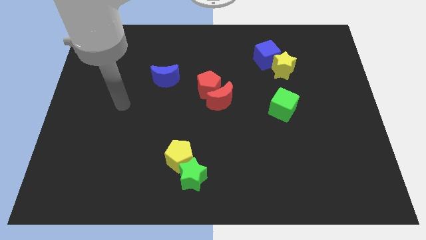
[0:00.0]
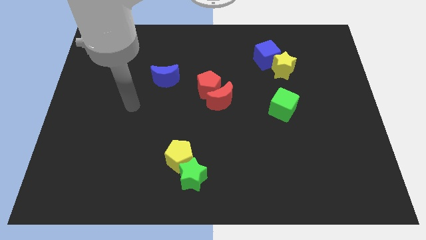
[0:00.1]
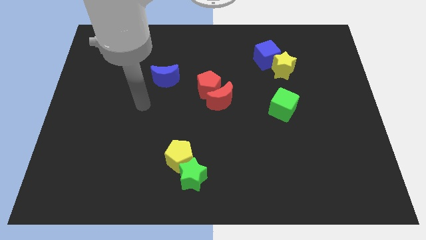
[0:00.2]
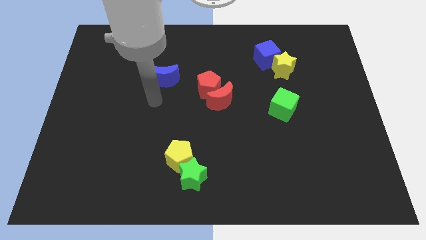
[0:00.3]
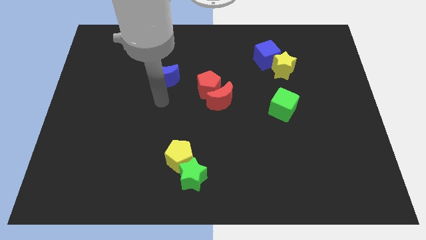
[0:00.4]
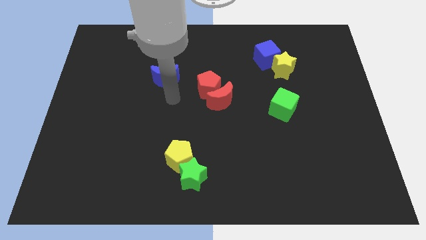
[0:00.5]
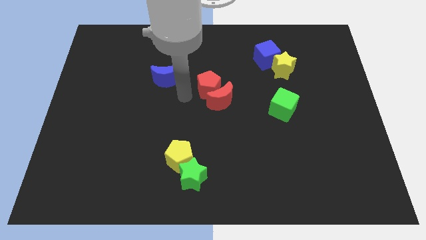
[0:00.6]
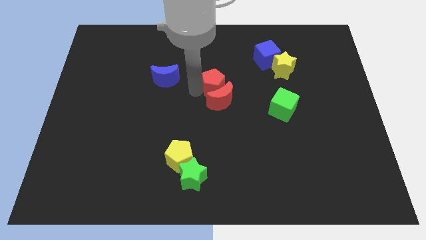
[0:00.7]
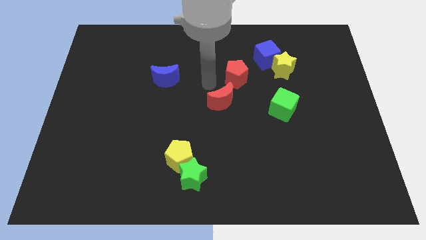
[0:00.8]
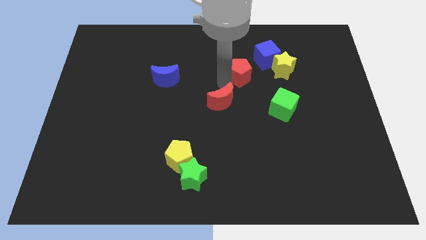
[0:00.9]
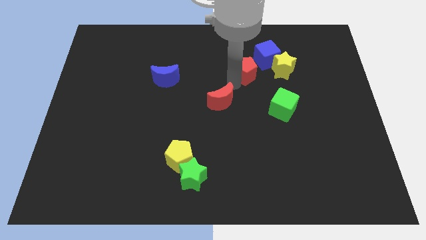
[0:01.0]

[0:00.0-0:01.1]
move the red moon away from the red pentagon

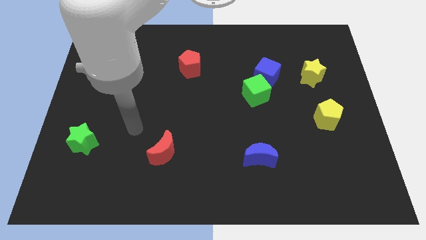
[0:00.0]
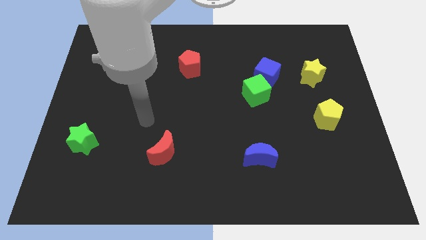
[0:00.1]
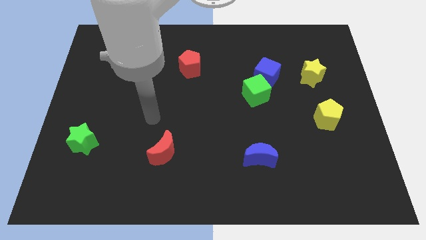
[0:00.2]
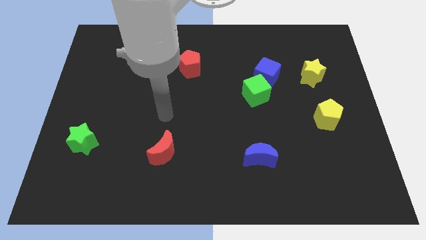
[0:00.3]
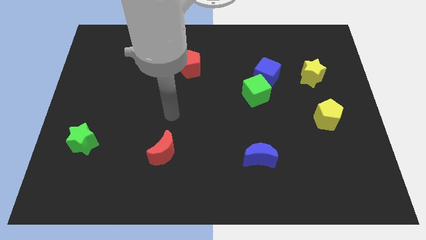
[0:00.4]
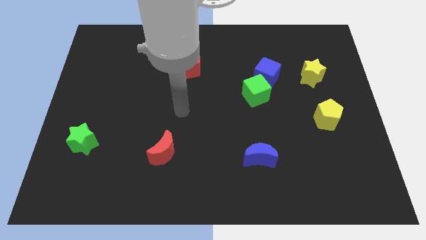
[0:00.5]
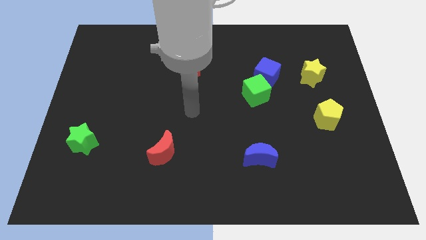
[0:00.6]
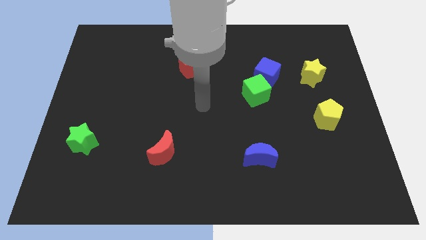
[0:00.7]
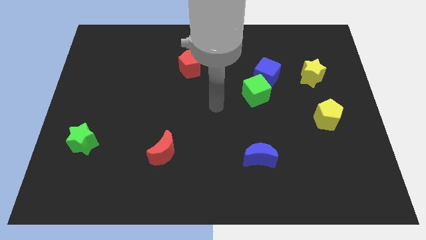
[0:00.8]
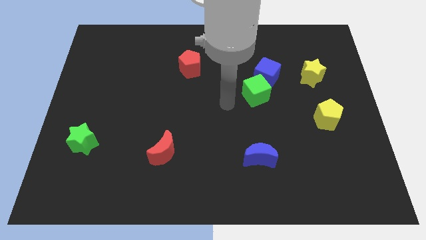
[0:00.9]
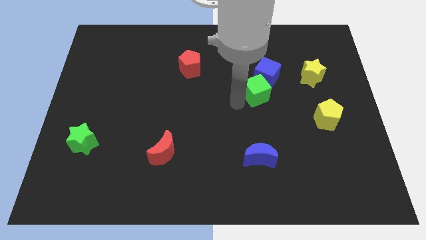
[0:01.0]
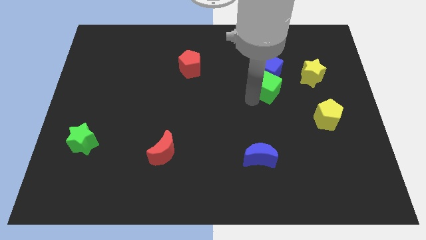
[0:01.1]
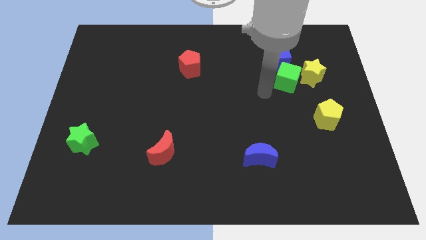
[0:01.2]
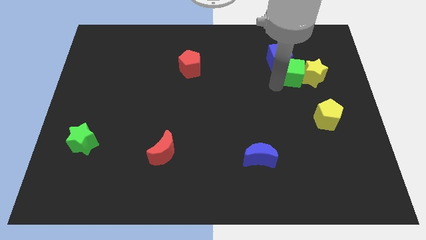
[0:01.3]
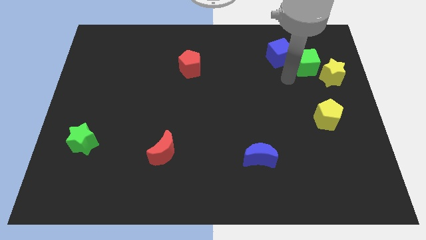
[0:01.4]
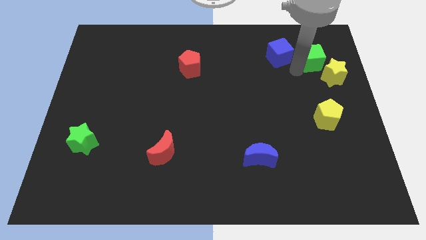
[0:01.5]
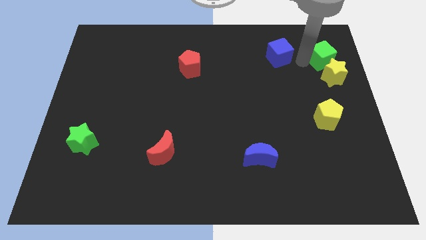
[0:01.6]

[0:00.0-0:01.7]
move the blue cube away from the green cube

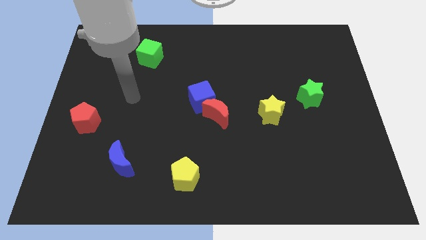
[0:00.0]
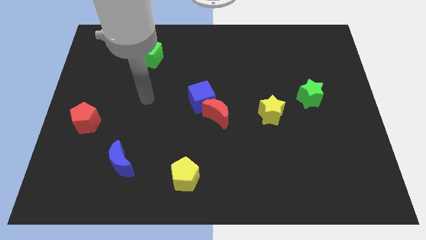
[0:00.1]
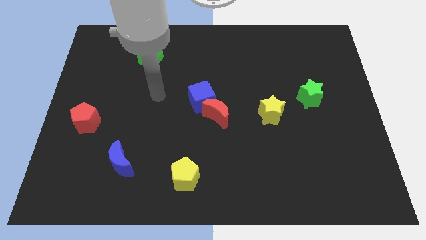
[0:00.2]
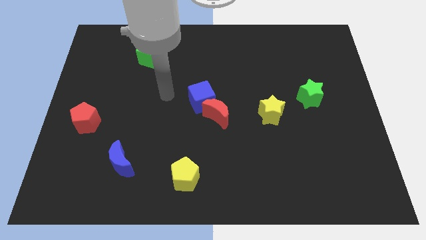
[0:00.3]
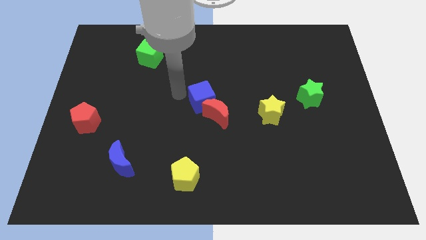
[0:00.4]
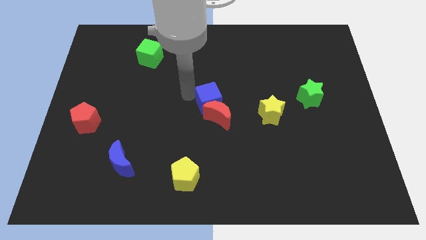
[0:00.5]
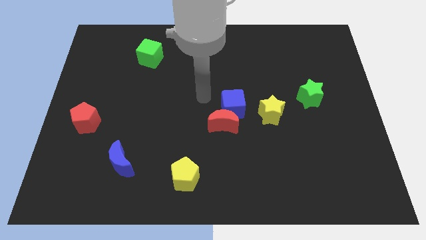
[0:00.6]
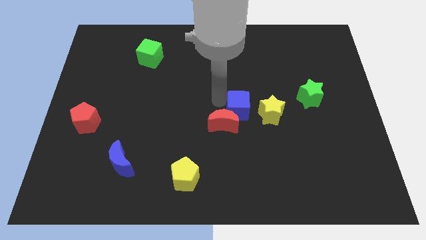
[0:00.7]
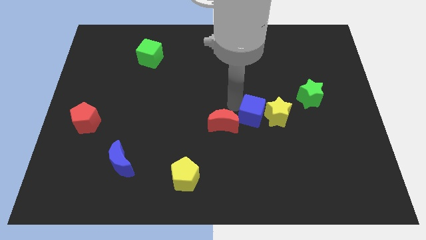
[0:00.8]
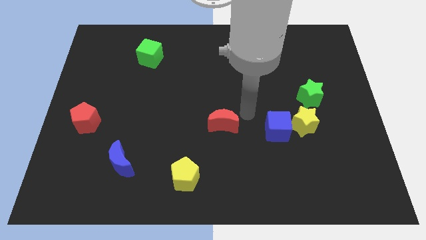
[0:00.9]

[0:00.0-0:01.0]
move the red moon away from the blue cube

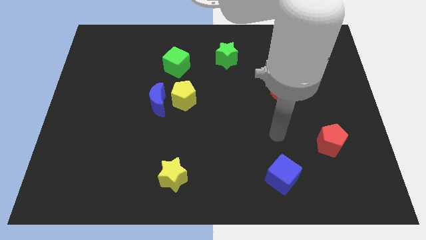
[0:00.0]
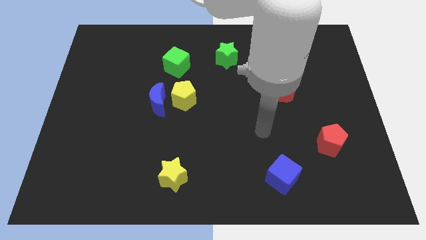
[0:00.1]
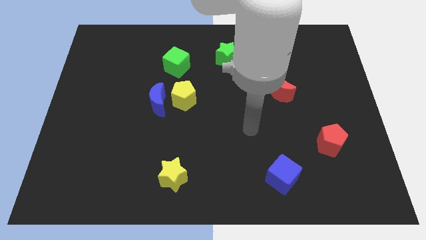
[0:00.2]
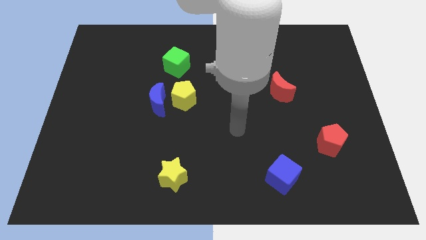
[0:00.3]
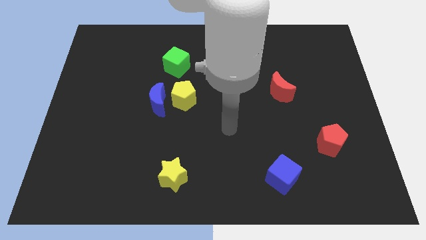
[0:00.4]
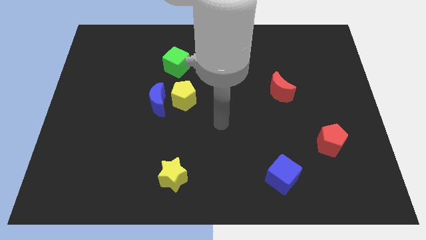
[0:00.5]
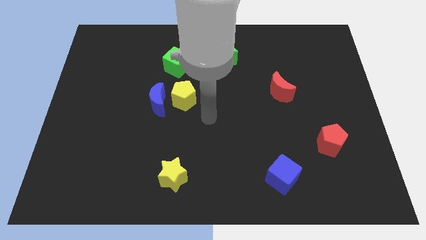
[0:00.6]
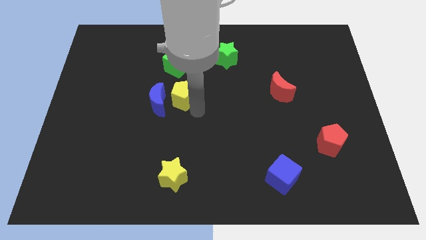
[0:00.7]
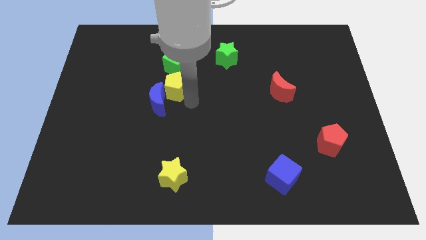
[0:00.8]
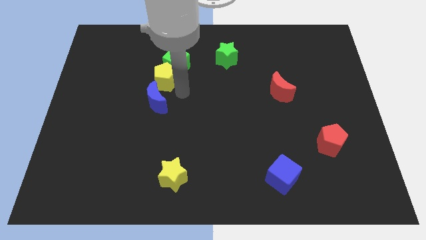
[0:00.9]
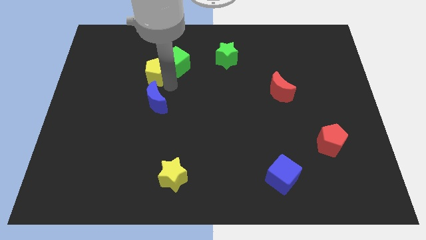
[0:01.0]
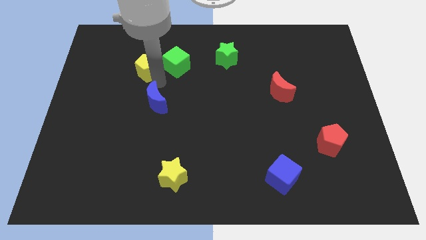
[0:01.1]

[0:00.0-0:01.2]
move the blue moon away from the yellow pentagon

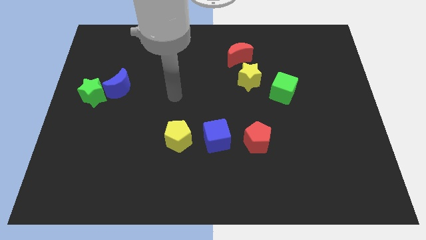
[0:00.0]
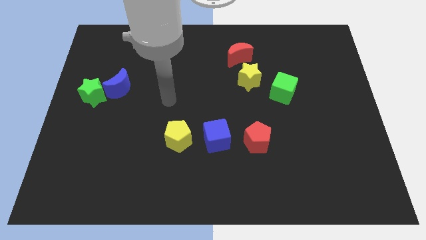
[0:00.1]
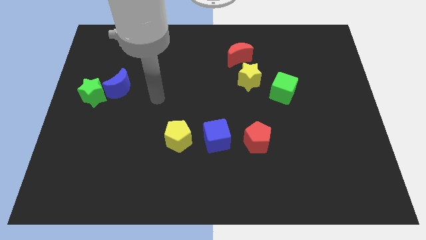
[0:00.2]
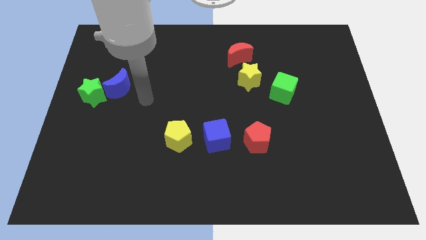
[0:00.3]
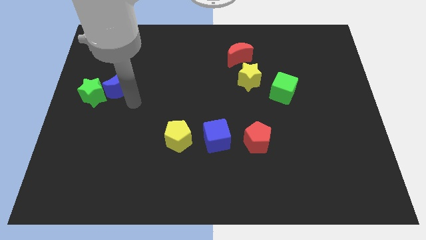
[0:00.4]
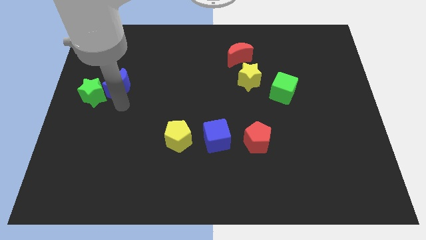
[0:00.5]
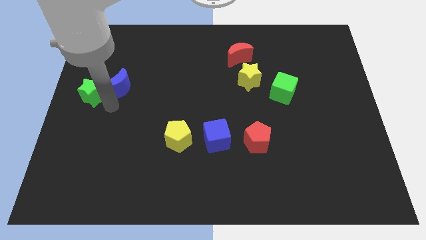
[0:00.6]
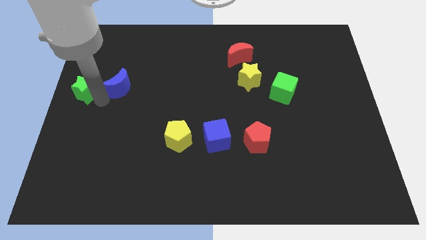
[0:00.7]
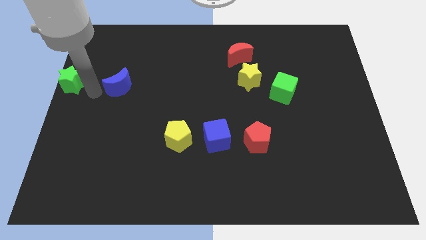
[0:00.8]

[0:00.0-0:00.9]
separate the blue moon from the green star

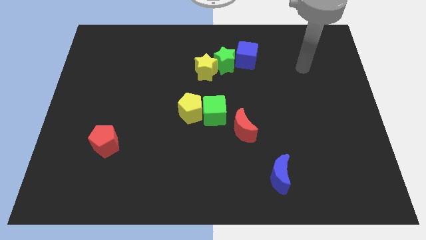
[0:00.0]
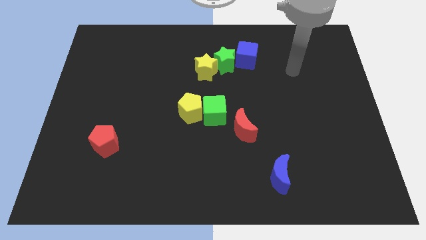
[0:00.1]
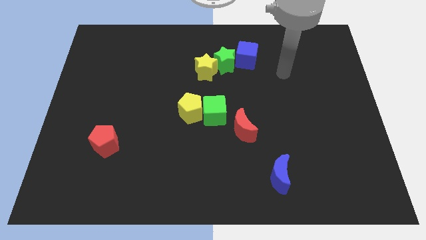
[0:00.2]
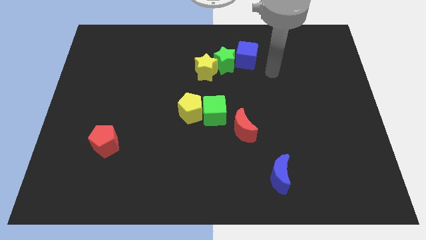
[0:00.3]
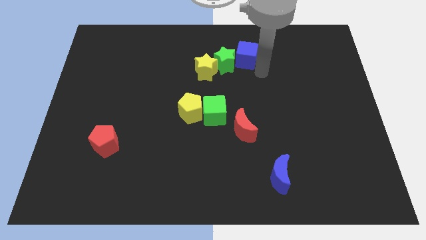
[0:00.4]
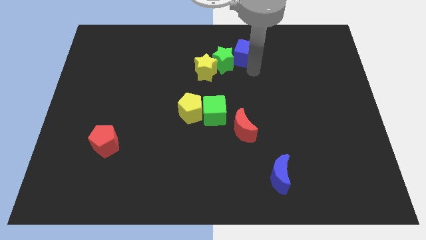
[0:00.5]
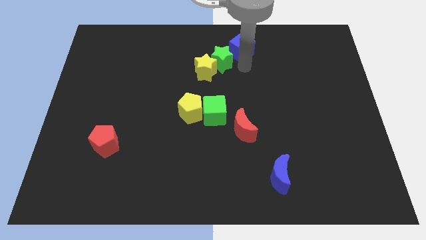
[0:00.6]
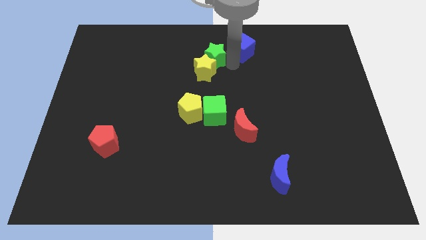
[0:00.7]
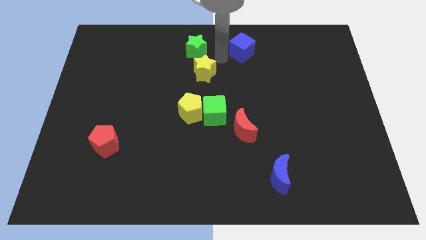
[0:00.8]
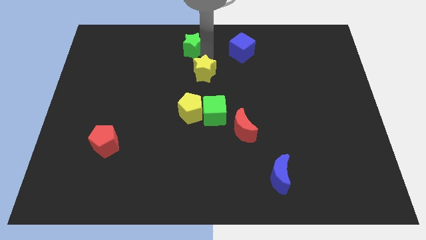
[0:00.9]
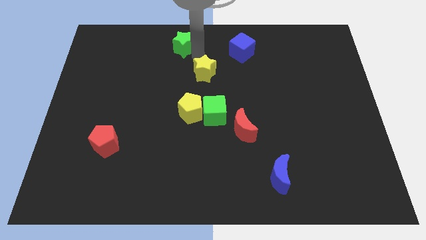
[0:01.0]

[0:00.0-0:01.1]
separate the yellow star from the green star

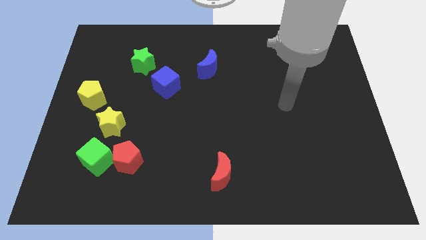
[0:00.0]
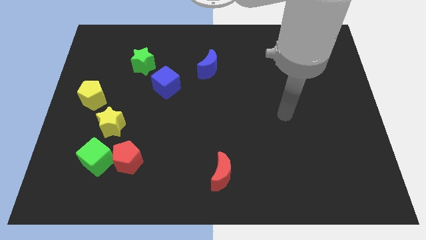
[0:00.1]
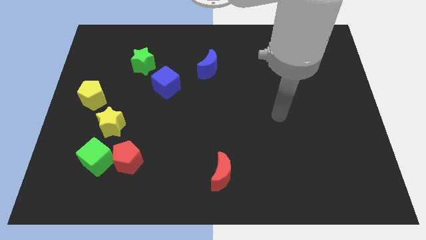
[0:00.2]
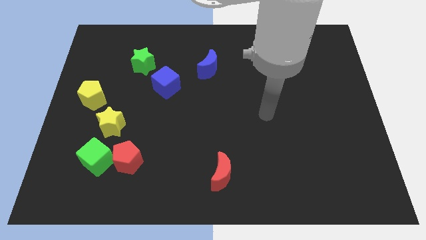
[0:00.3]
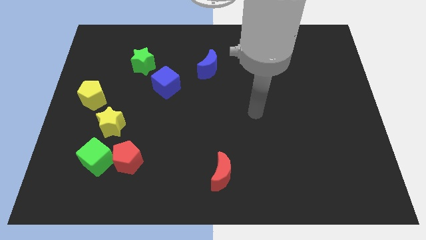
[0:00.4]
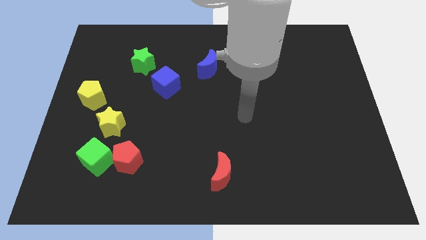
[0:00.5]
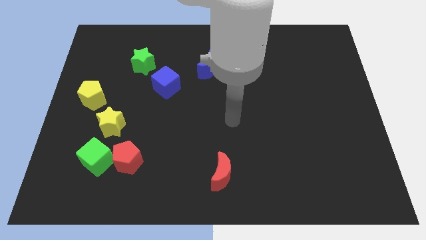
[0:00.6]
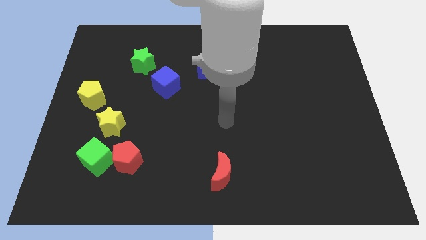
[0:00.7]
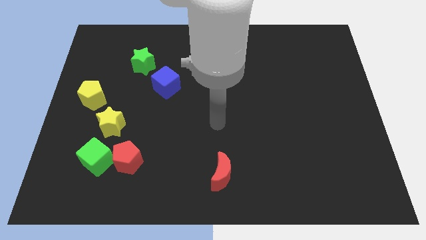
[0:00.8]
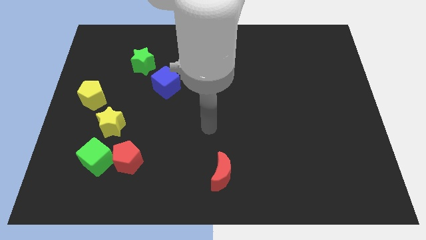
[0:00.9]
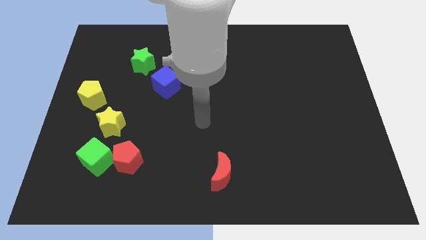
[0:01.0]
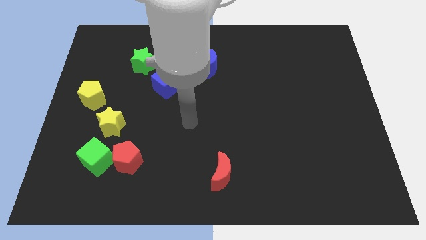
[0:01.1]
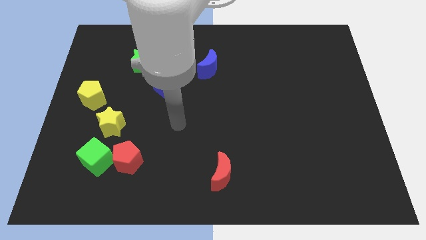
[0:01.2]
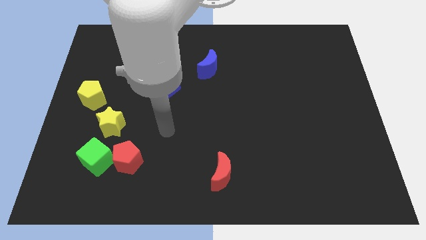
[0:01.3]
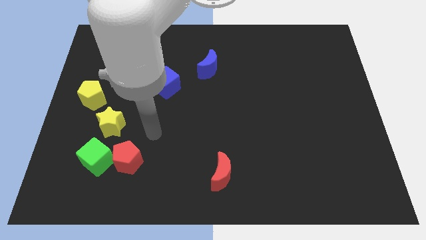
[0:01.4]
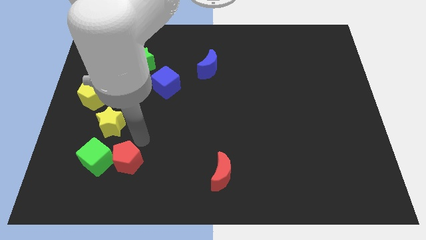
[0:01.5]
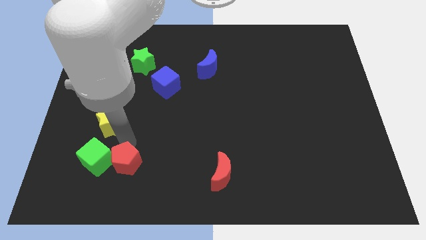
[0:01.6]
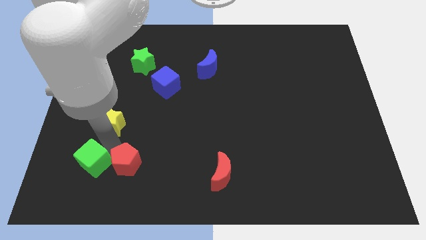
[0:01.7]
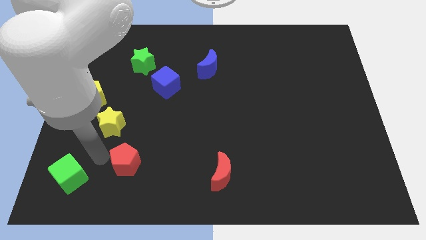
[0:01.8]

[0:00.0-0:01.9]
pull the red pentagon apart from the green cube

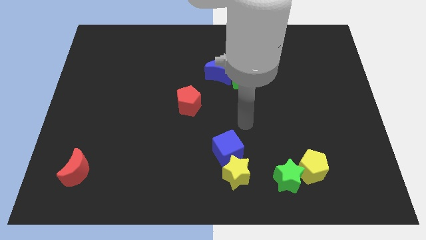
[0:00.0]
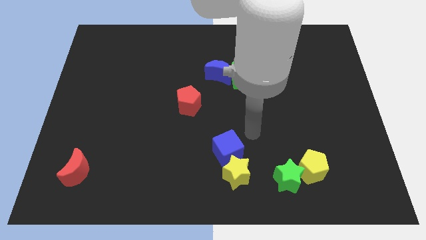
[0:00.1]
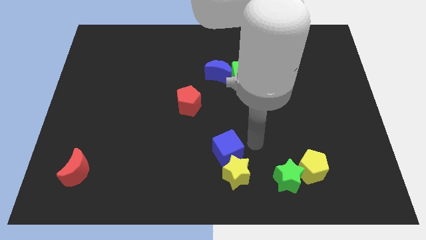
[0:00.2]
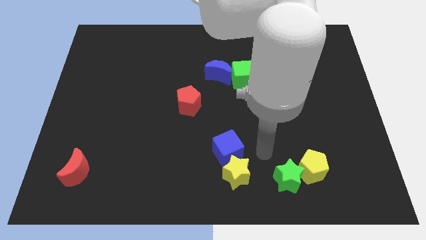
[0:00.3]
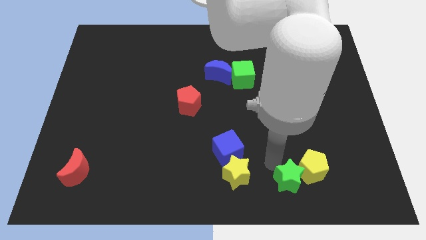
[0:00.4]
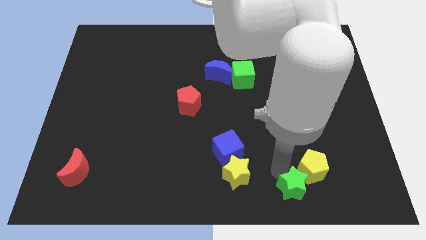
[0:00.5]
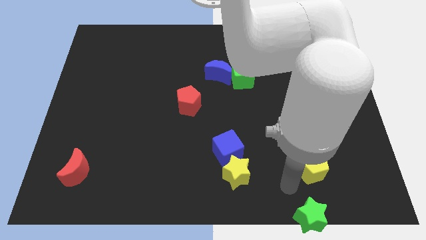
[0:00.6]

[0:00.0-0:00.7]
separate the yellow pentagon from the green star
